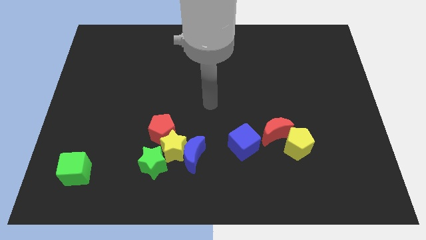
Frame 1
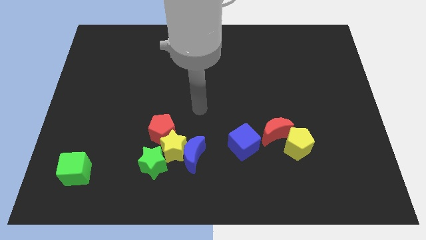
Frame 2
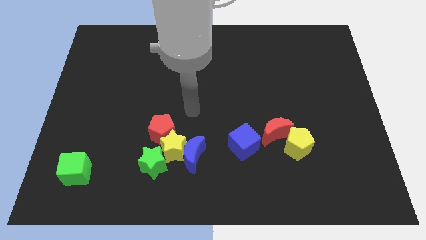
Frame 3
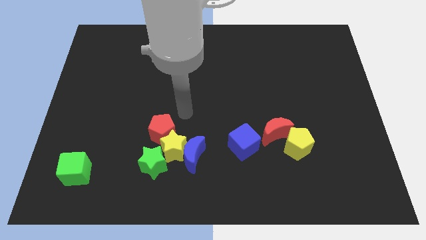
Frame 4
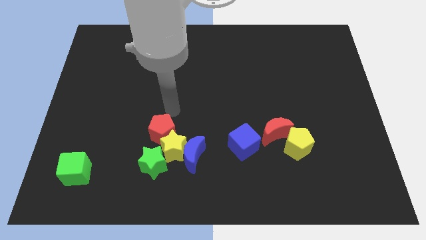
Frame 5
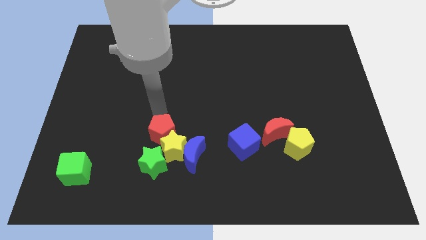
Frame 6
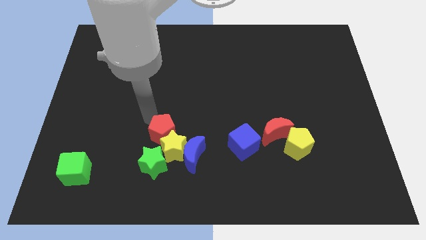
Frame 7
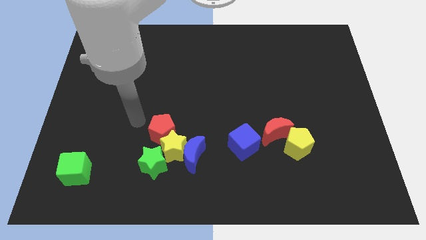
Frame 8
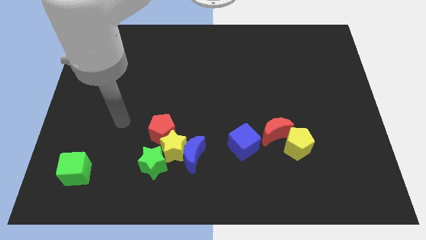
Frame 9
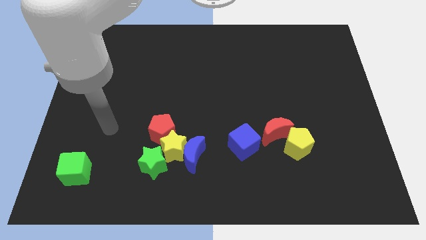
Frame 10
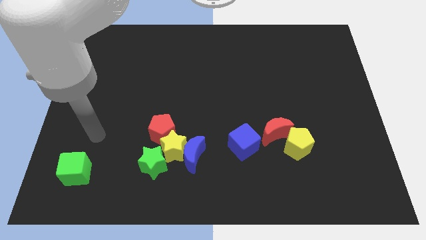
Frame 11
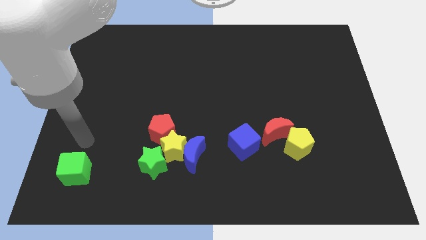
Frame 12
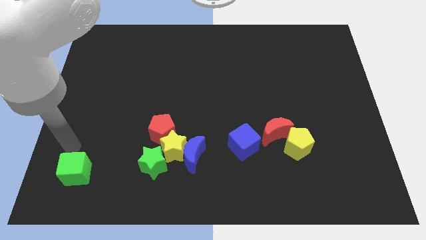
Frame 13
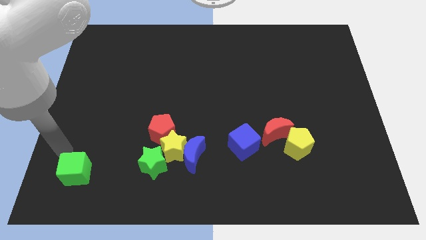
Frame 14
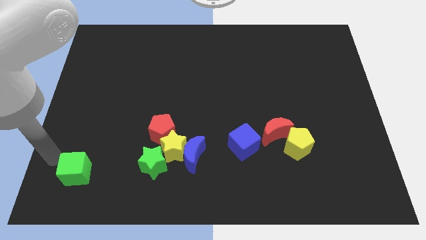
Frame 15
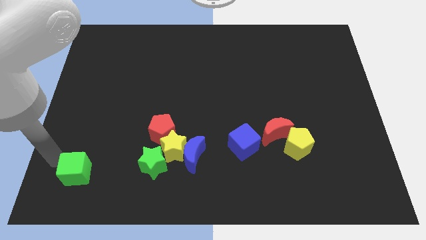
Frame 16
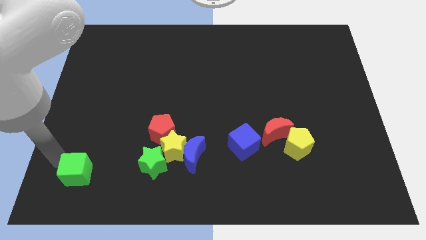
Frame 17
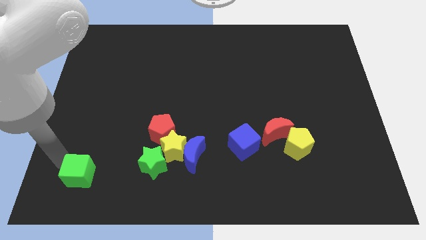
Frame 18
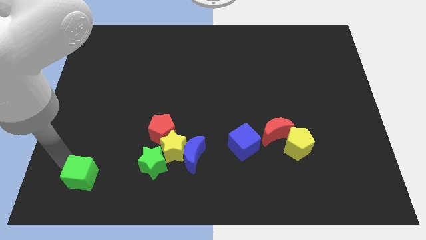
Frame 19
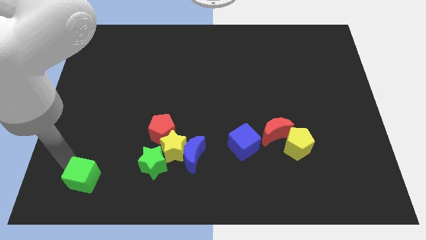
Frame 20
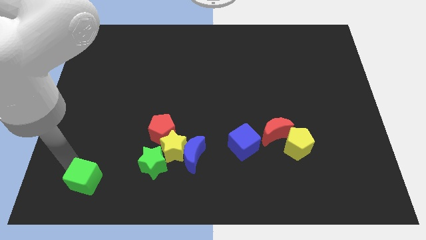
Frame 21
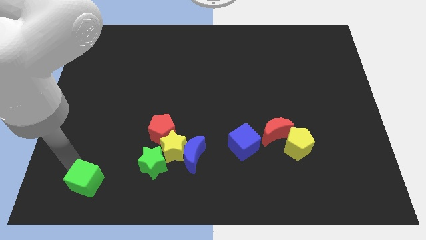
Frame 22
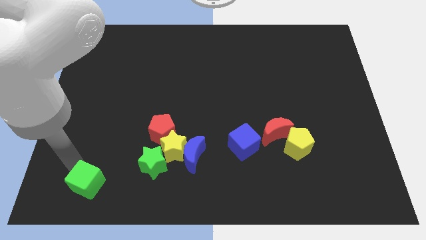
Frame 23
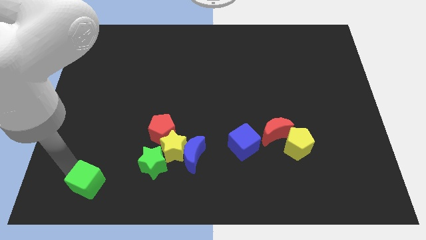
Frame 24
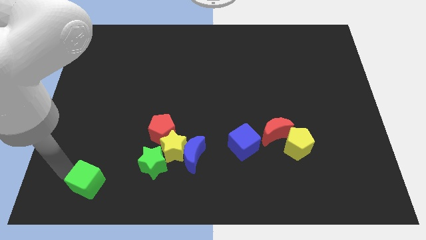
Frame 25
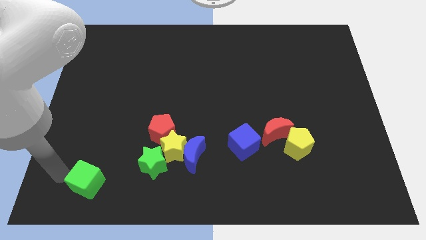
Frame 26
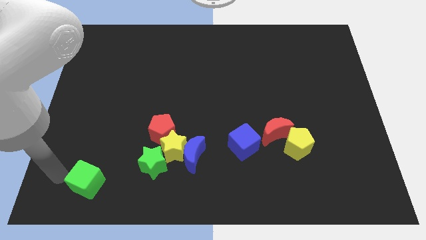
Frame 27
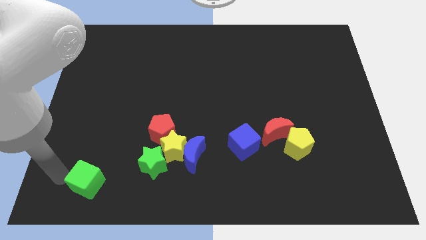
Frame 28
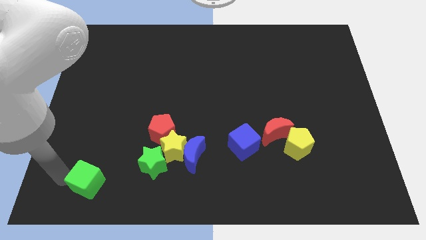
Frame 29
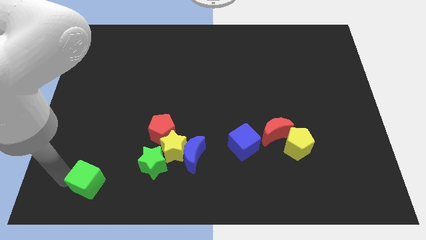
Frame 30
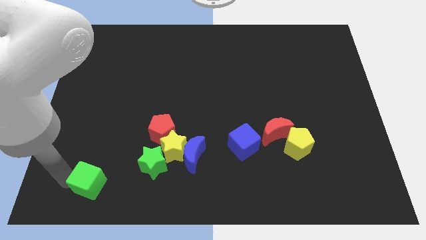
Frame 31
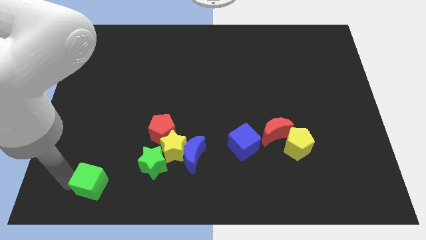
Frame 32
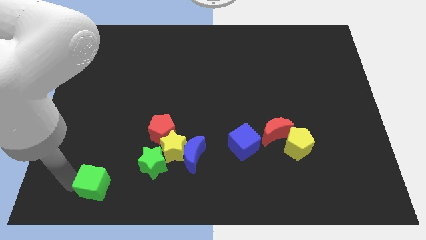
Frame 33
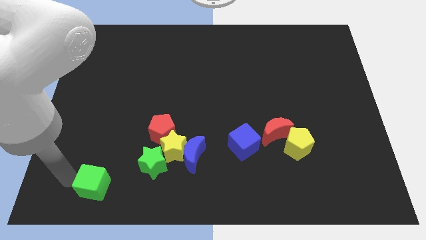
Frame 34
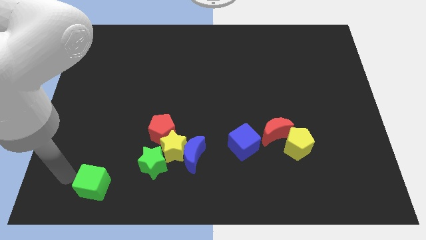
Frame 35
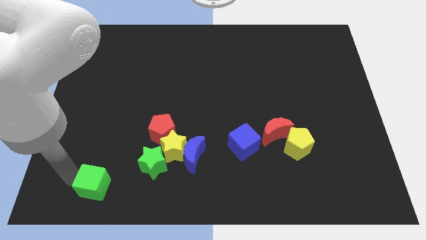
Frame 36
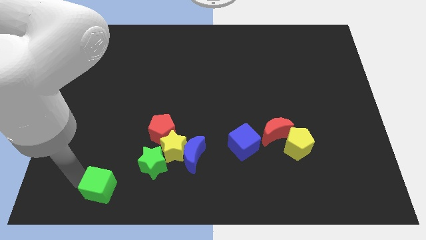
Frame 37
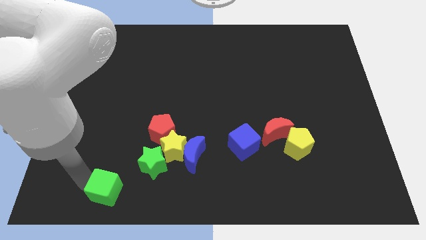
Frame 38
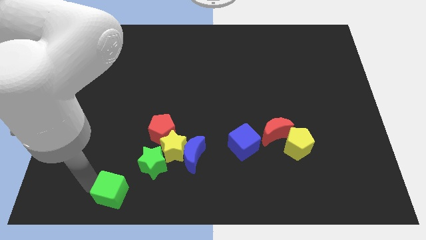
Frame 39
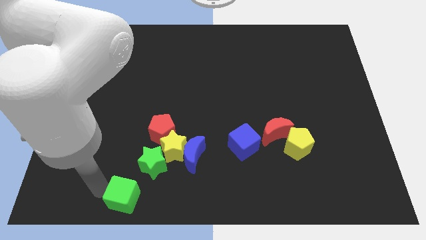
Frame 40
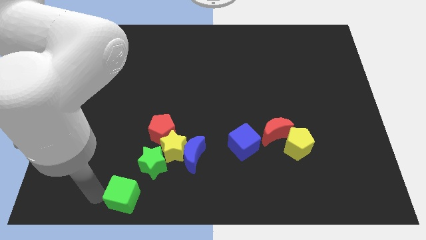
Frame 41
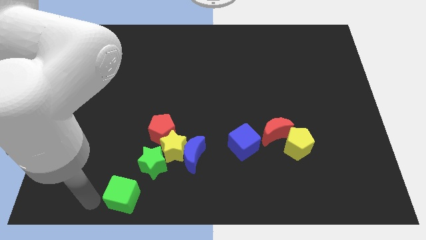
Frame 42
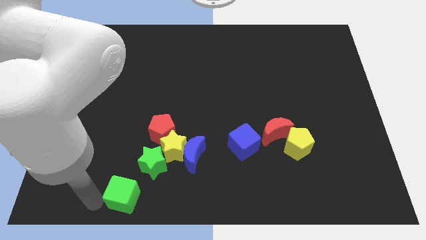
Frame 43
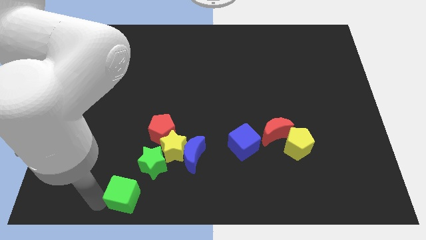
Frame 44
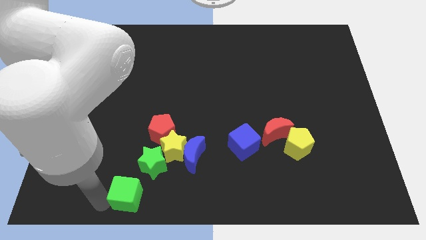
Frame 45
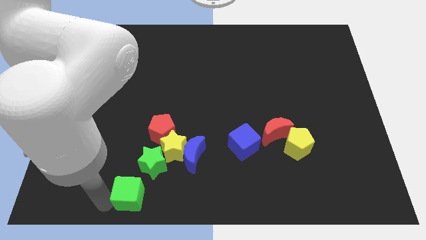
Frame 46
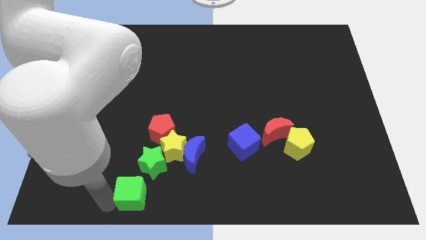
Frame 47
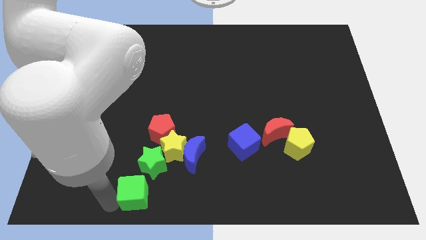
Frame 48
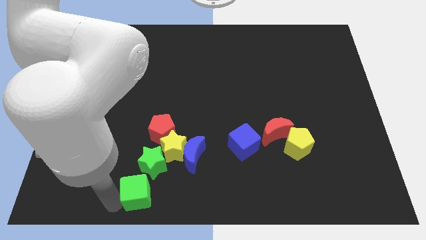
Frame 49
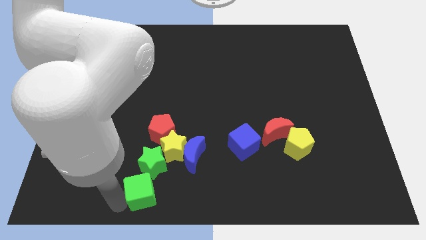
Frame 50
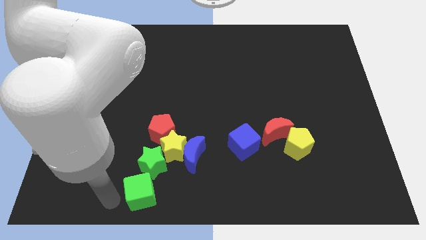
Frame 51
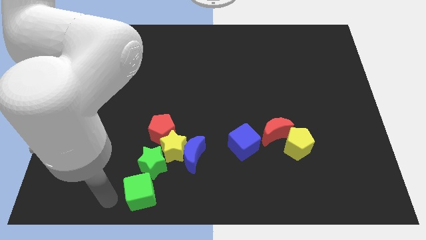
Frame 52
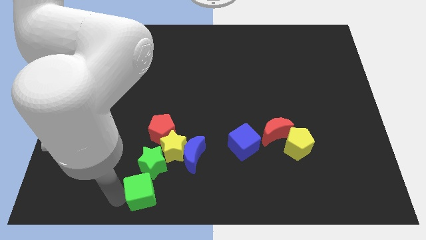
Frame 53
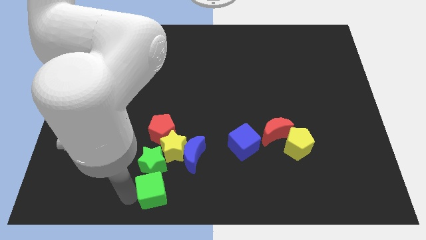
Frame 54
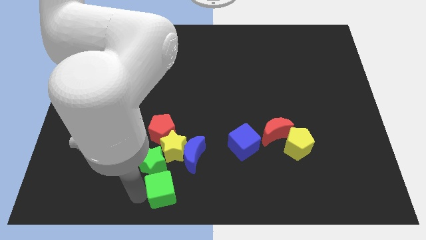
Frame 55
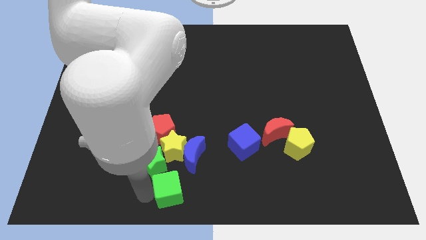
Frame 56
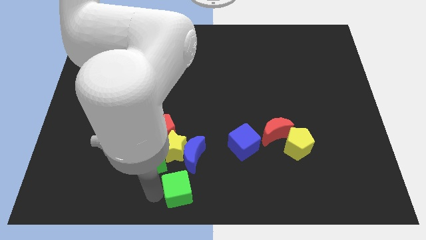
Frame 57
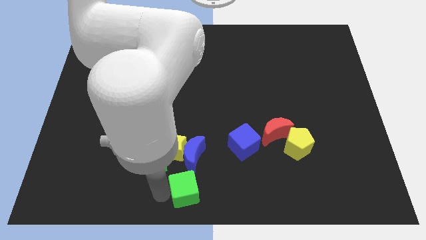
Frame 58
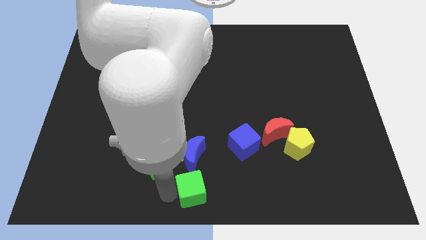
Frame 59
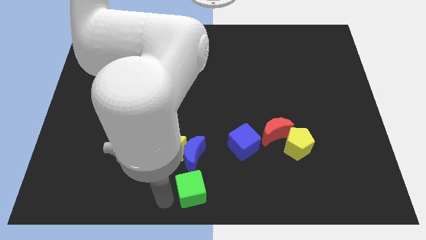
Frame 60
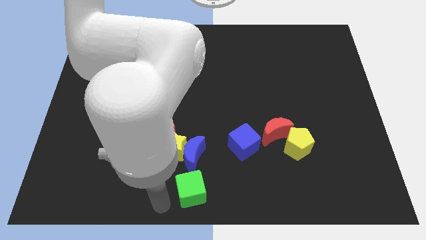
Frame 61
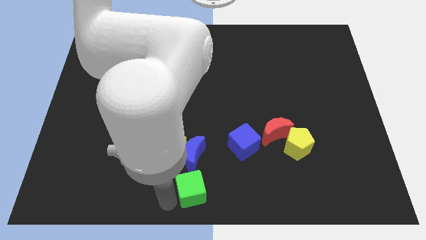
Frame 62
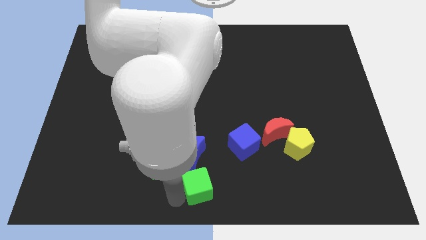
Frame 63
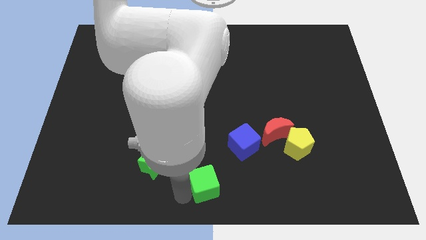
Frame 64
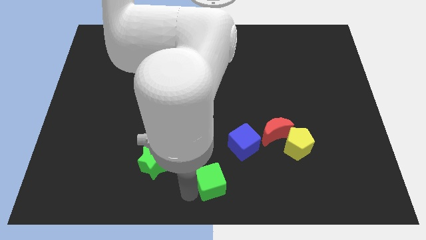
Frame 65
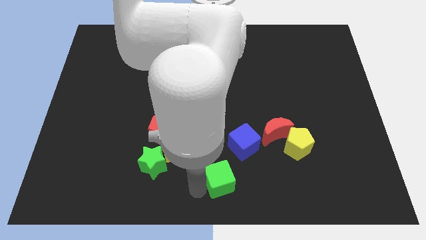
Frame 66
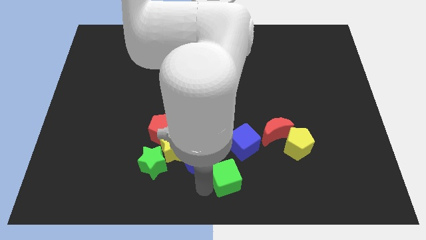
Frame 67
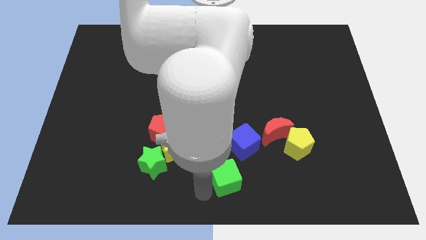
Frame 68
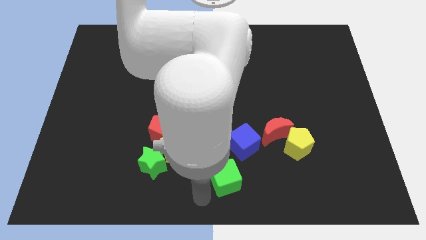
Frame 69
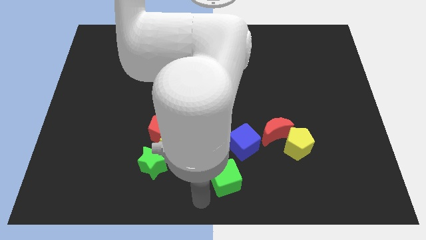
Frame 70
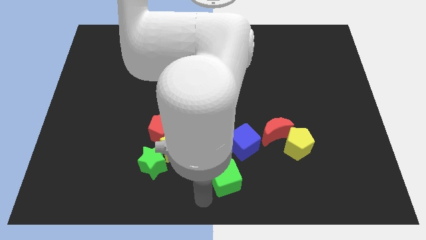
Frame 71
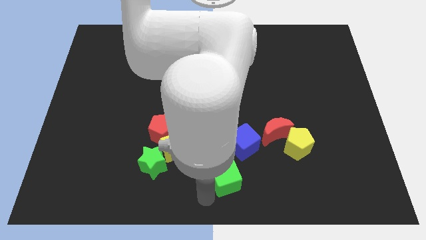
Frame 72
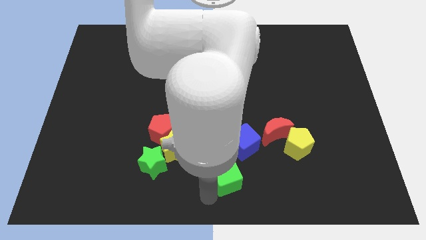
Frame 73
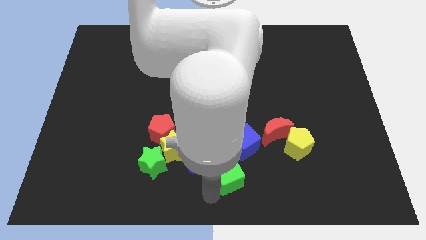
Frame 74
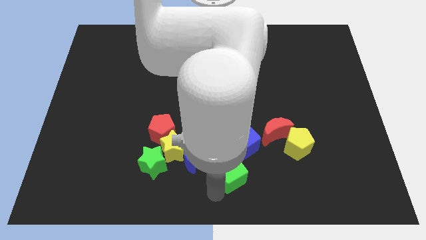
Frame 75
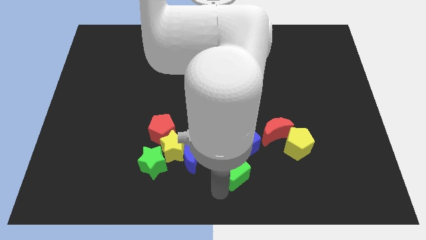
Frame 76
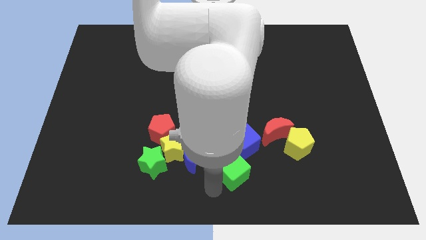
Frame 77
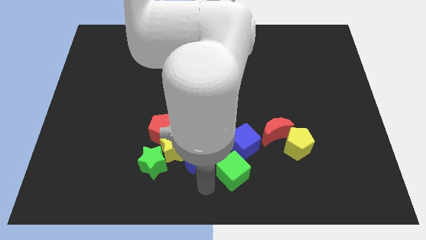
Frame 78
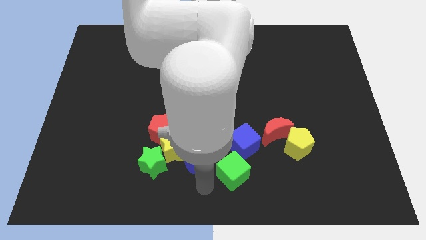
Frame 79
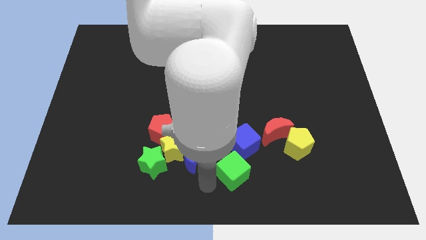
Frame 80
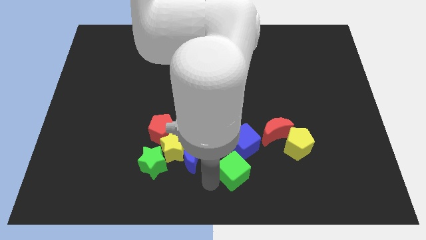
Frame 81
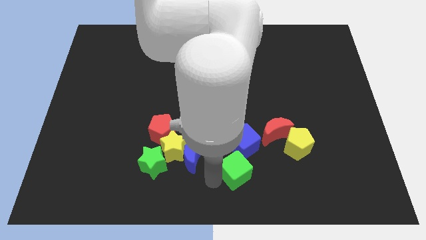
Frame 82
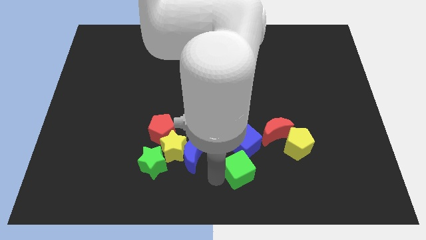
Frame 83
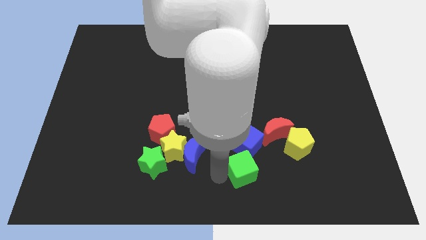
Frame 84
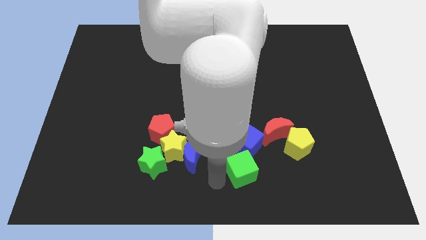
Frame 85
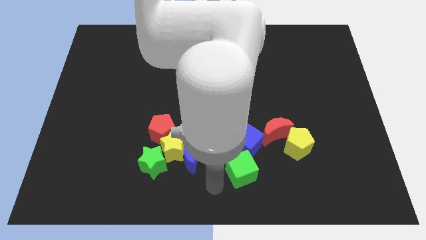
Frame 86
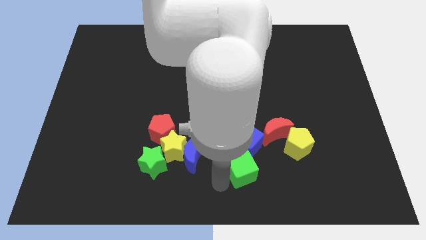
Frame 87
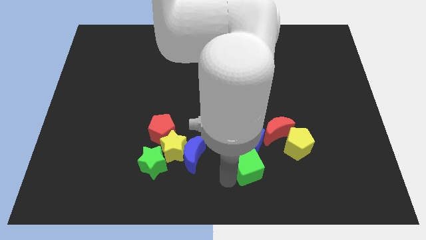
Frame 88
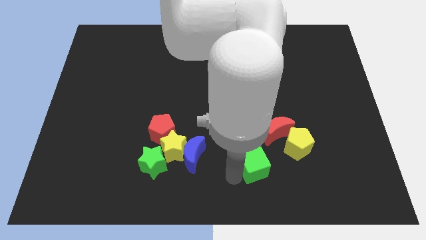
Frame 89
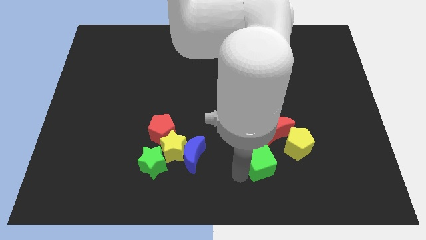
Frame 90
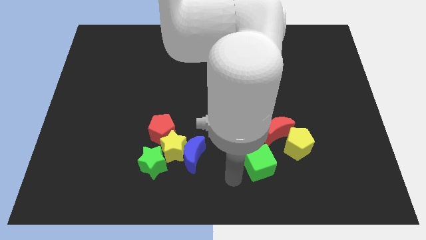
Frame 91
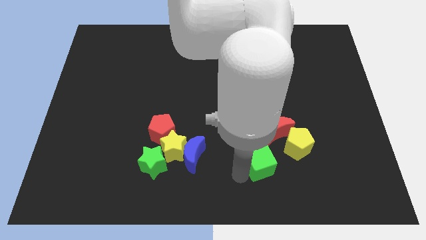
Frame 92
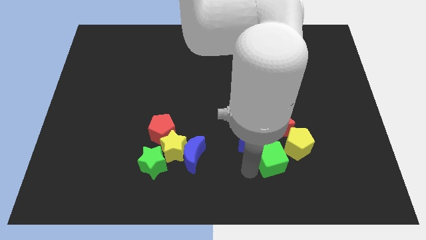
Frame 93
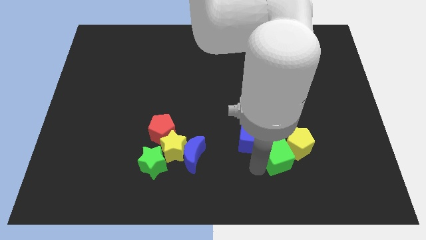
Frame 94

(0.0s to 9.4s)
slide the green cube to the yellow pentagon
